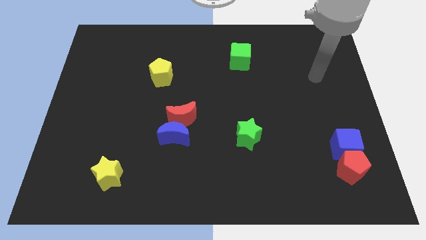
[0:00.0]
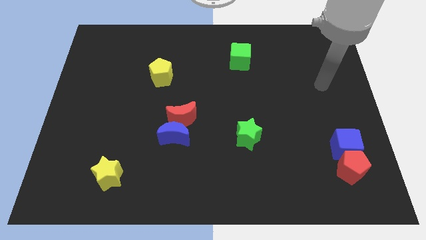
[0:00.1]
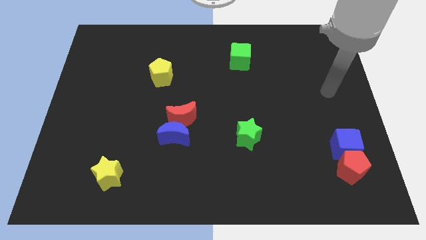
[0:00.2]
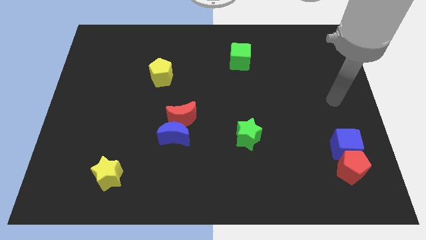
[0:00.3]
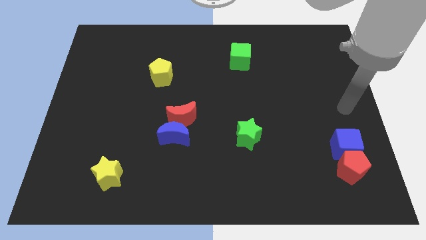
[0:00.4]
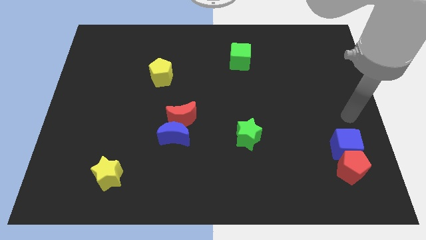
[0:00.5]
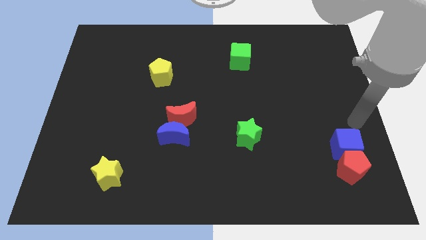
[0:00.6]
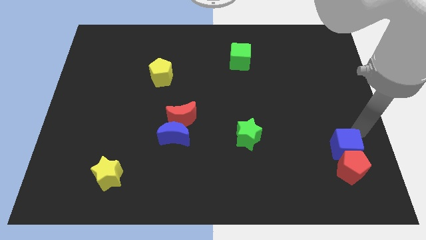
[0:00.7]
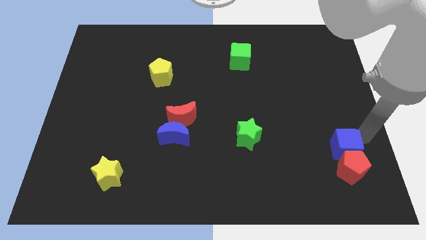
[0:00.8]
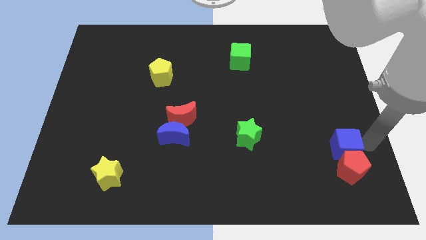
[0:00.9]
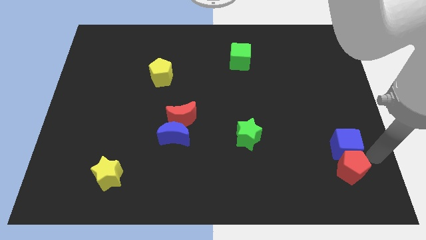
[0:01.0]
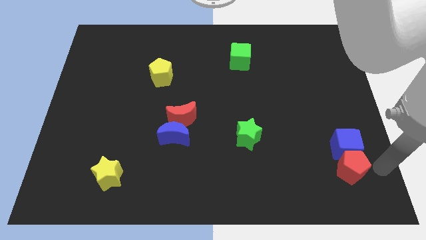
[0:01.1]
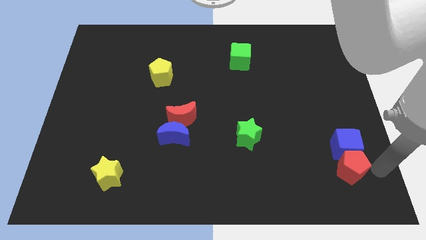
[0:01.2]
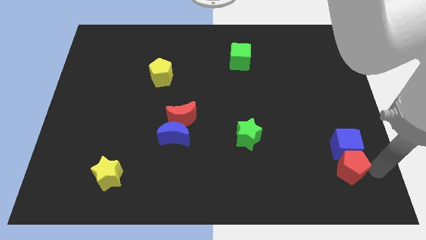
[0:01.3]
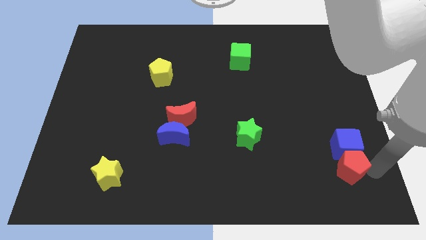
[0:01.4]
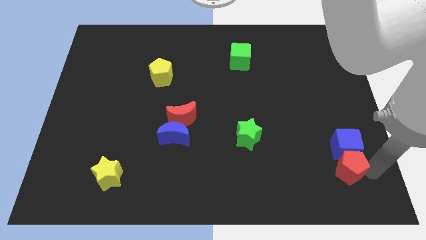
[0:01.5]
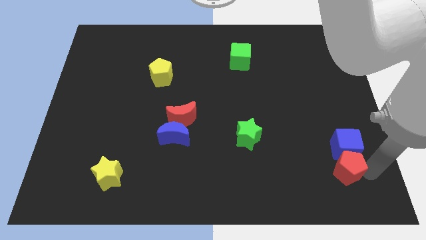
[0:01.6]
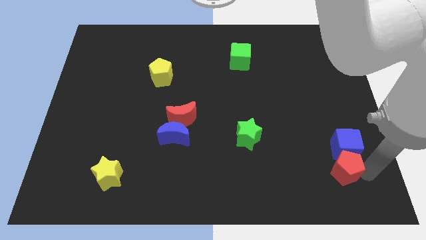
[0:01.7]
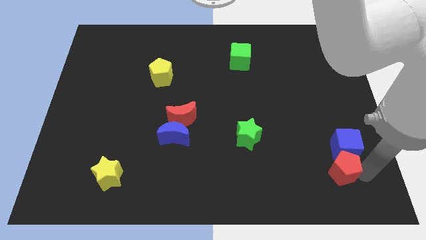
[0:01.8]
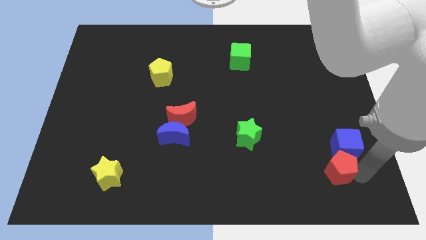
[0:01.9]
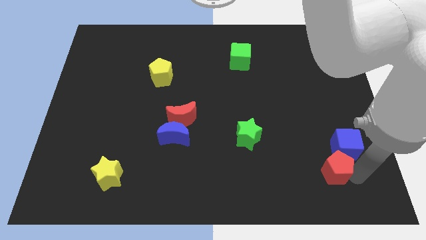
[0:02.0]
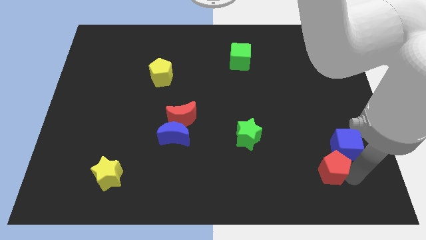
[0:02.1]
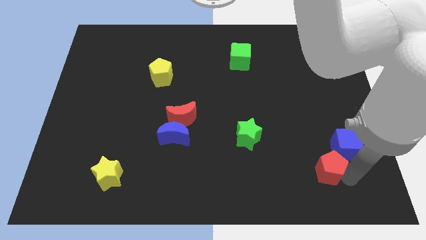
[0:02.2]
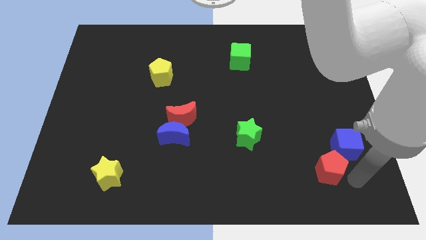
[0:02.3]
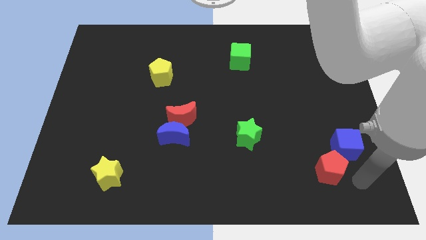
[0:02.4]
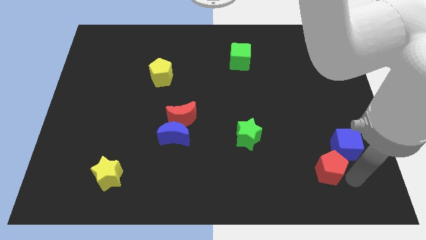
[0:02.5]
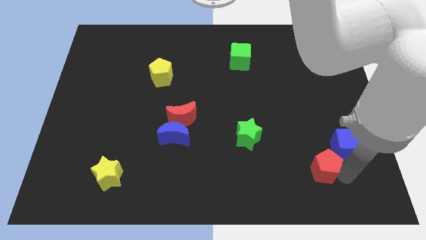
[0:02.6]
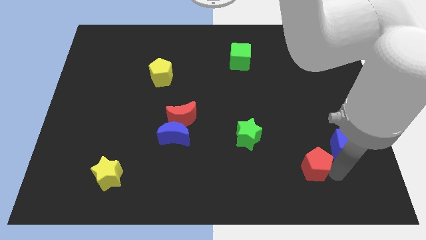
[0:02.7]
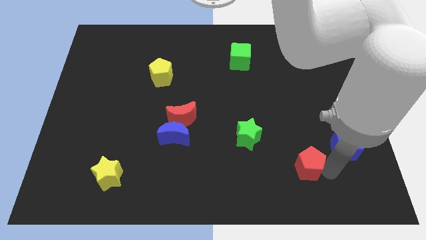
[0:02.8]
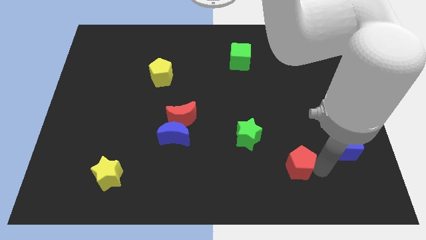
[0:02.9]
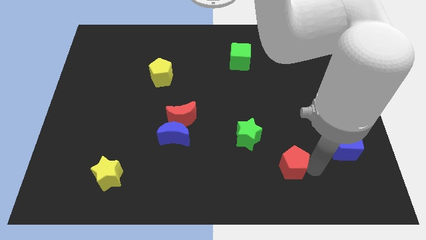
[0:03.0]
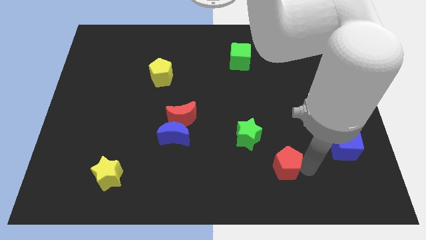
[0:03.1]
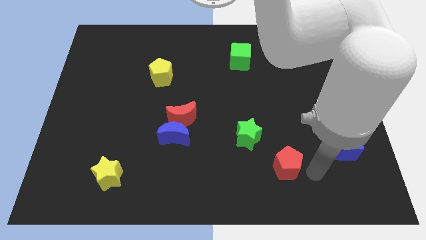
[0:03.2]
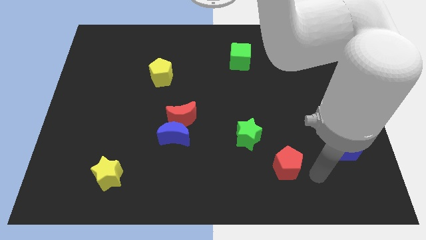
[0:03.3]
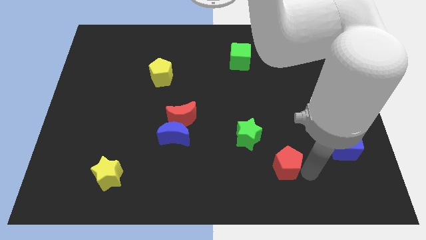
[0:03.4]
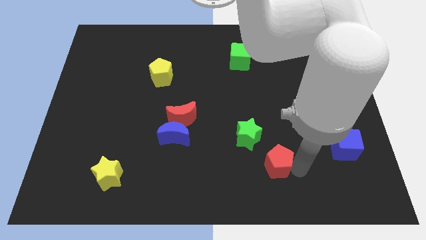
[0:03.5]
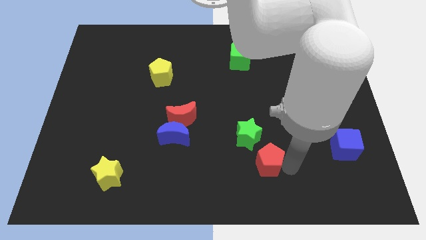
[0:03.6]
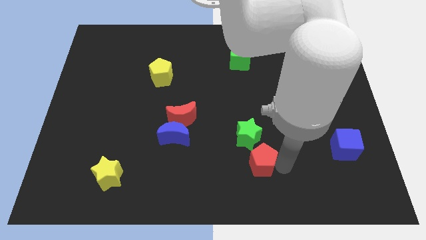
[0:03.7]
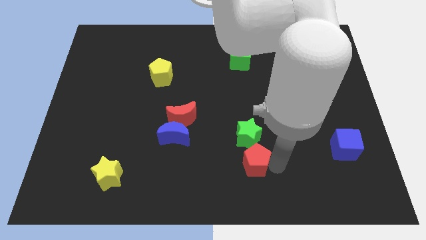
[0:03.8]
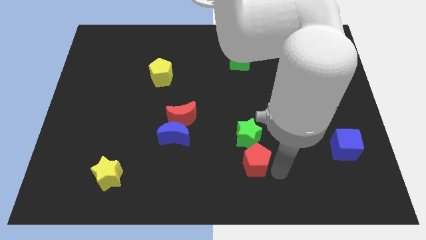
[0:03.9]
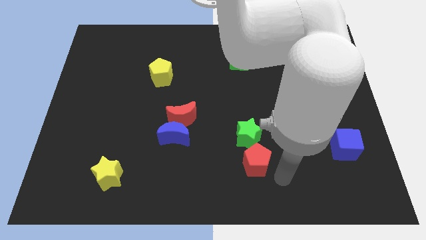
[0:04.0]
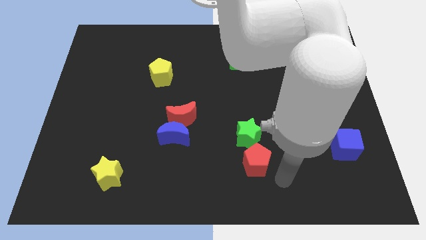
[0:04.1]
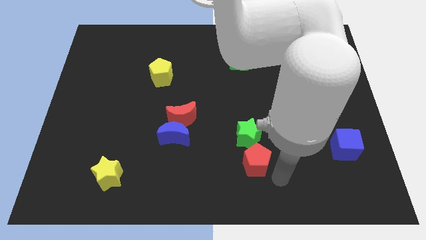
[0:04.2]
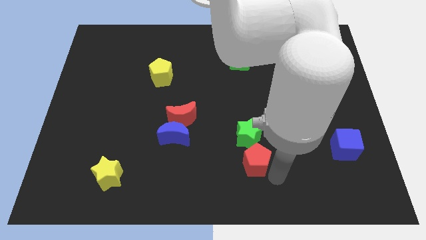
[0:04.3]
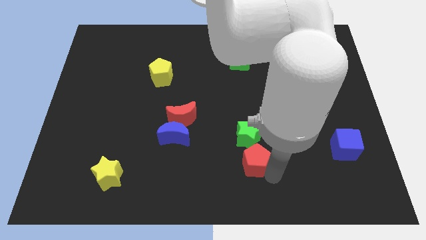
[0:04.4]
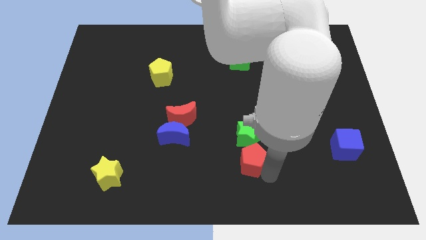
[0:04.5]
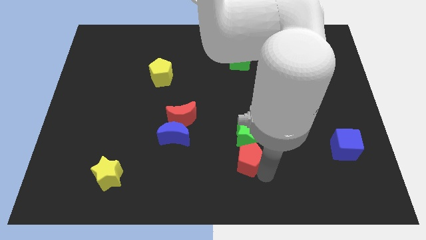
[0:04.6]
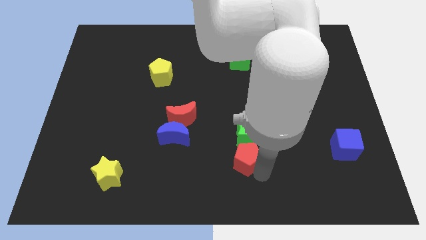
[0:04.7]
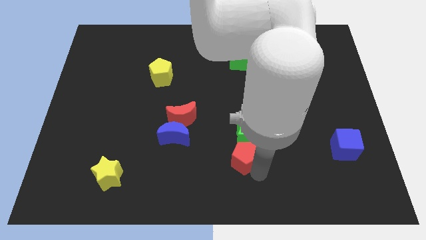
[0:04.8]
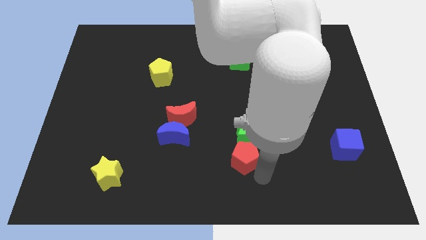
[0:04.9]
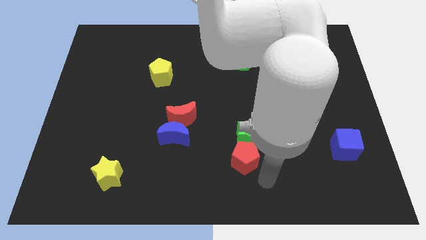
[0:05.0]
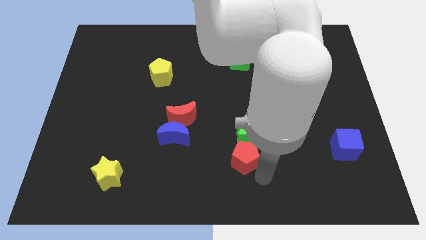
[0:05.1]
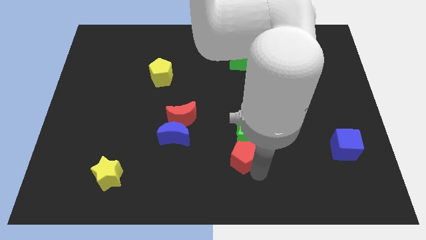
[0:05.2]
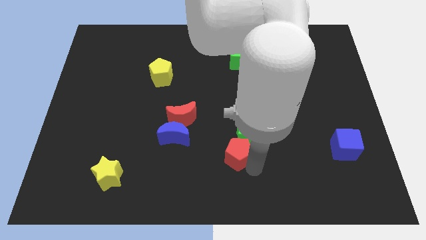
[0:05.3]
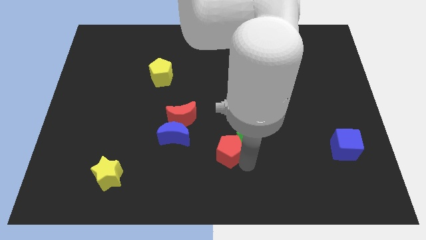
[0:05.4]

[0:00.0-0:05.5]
push the red pentagon to the right of the blue moon

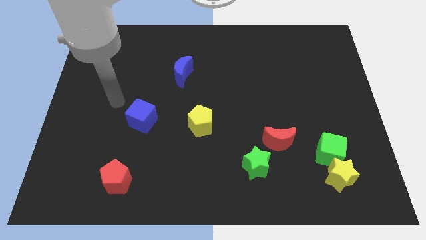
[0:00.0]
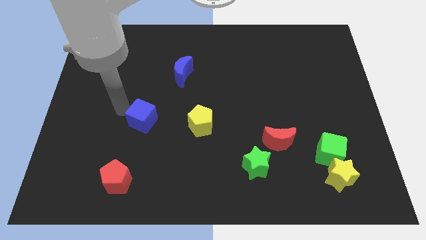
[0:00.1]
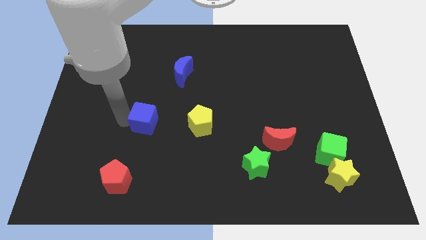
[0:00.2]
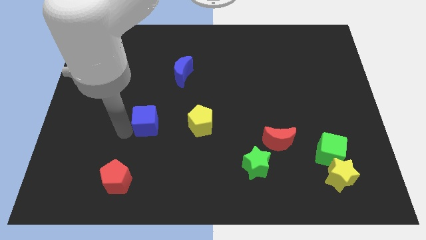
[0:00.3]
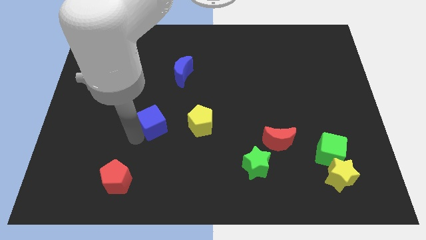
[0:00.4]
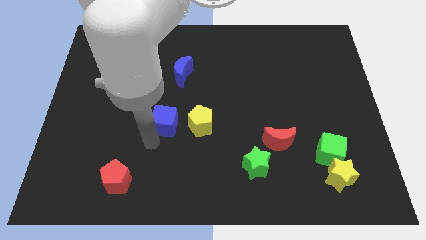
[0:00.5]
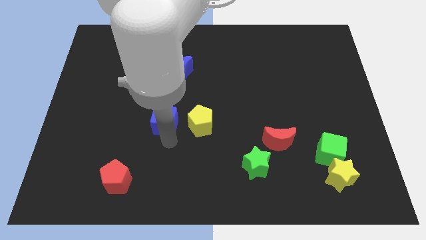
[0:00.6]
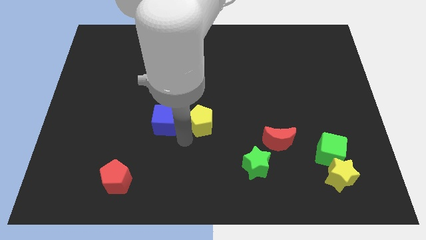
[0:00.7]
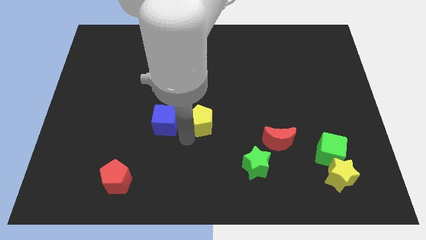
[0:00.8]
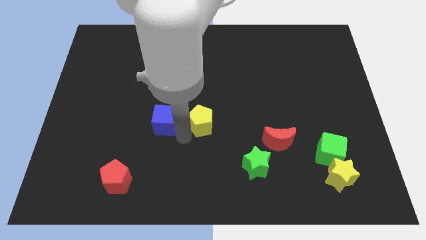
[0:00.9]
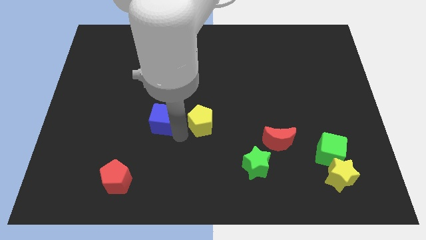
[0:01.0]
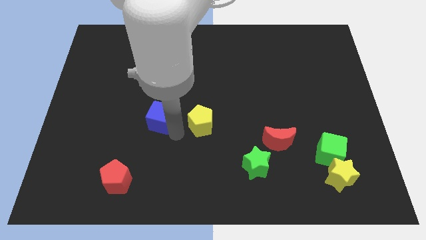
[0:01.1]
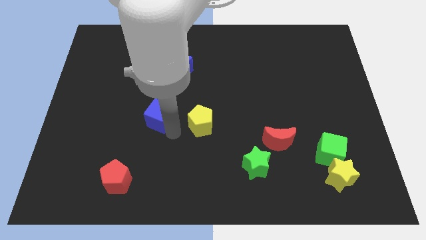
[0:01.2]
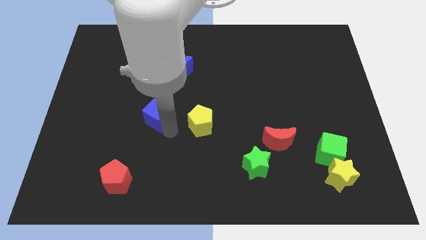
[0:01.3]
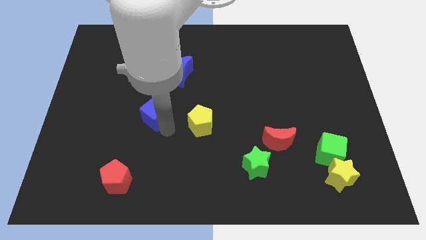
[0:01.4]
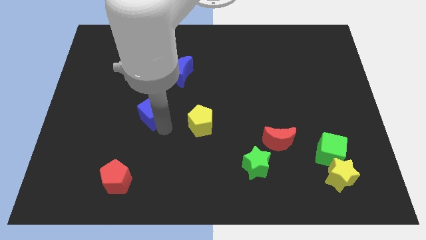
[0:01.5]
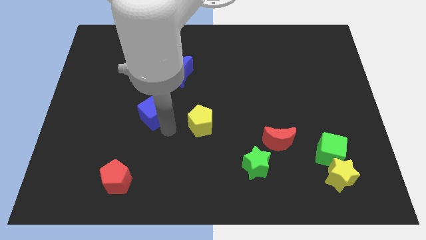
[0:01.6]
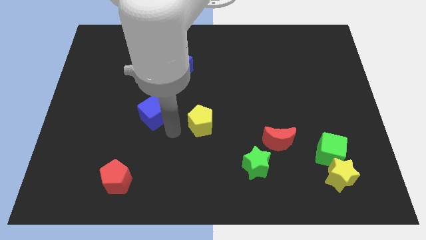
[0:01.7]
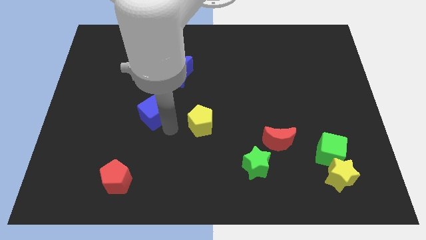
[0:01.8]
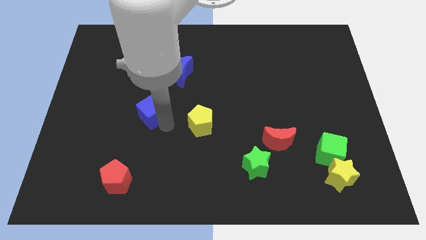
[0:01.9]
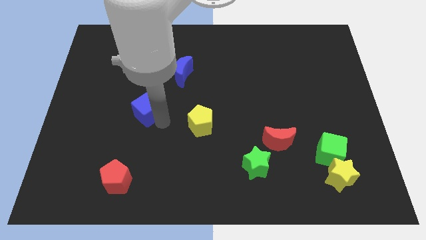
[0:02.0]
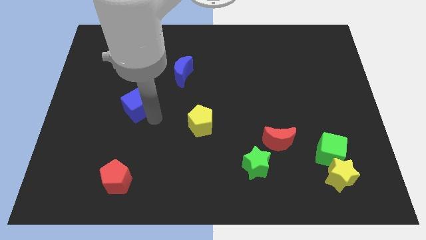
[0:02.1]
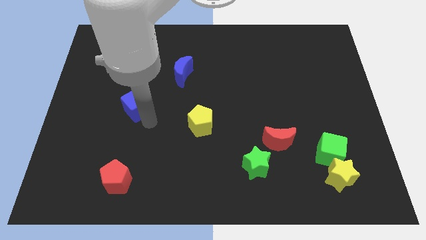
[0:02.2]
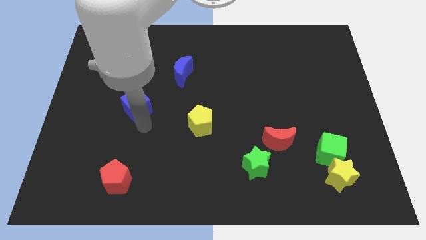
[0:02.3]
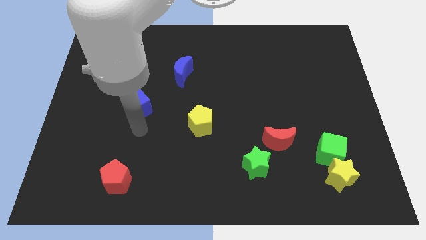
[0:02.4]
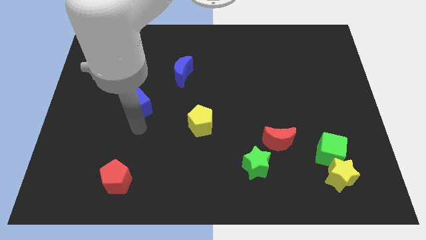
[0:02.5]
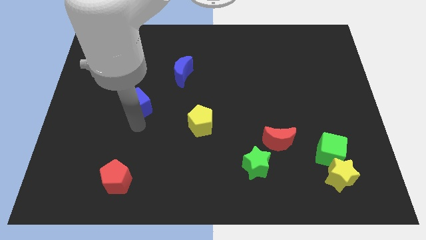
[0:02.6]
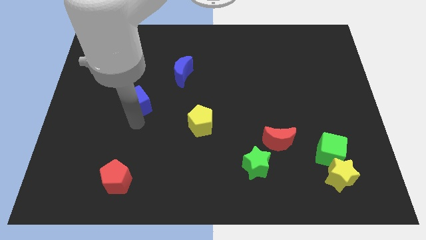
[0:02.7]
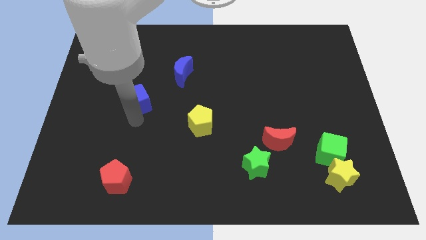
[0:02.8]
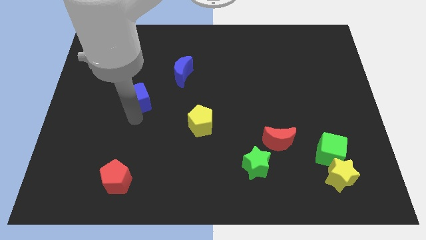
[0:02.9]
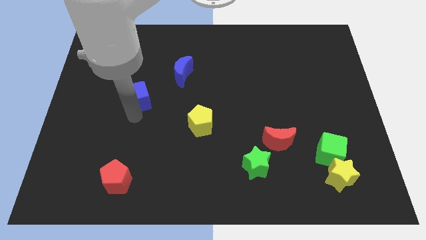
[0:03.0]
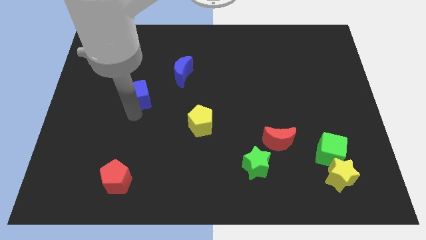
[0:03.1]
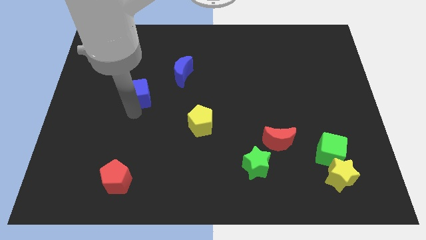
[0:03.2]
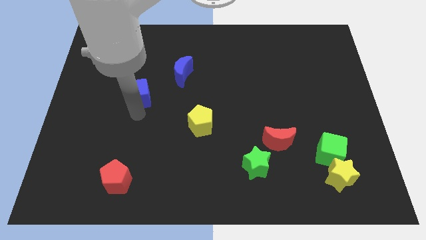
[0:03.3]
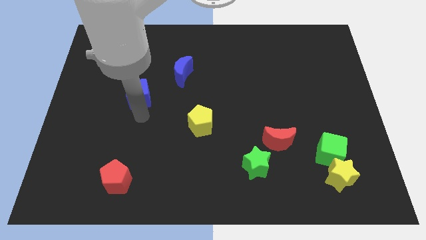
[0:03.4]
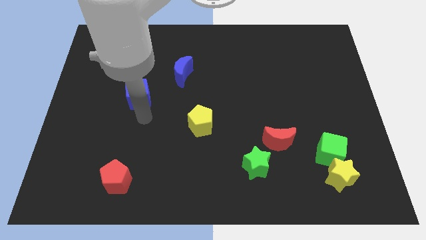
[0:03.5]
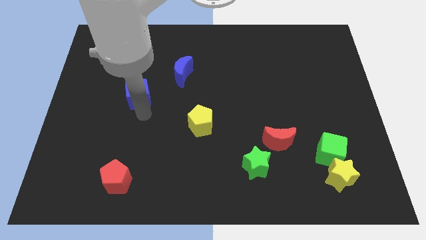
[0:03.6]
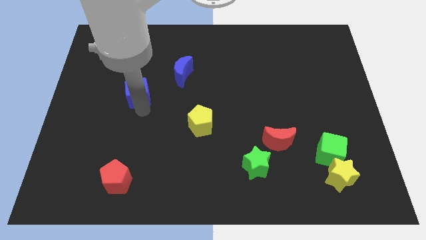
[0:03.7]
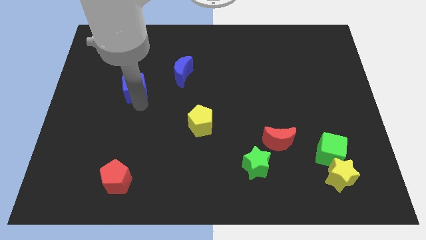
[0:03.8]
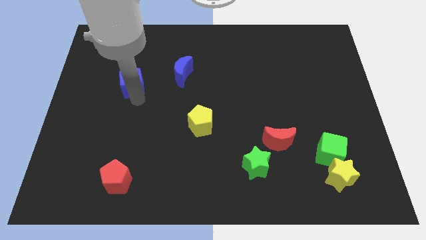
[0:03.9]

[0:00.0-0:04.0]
move the blue cube left of the blue moon
